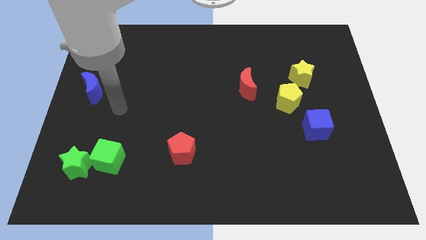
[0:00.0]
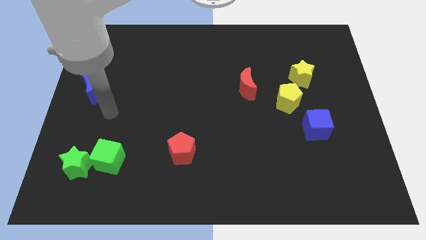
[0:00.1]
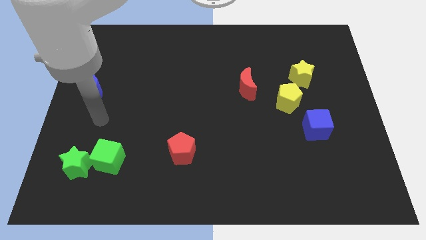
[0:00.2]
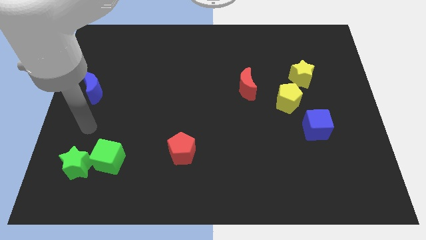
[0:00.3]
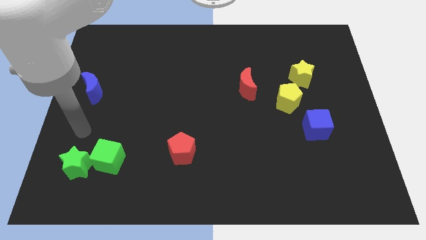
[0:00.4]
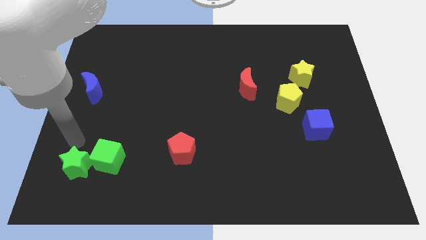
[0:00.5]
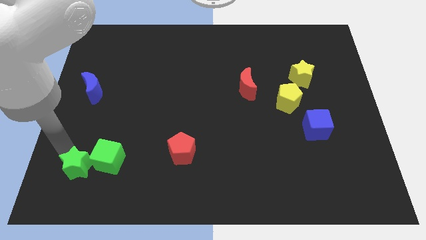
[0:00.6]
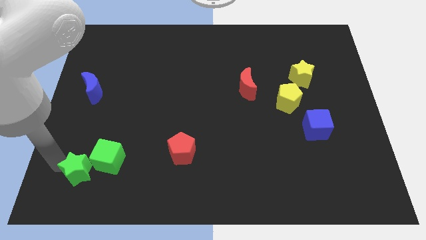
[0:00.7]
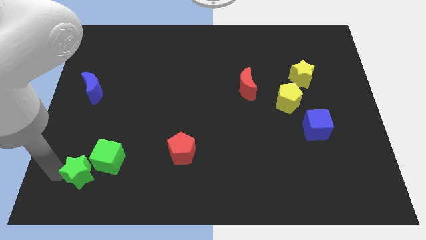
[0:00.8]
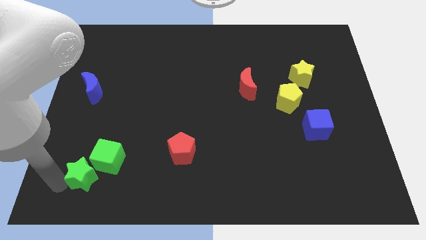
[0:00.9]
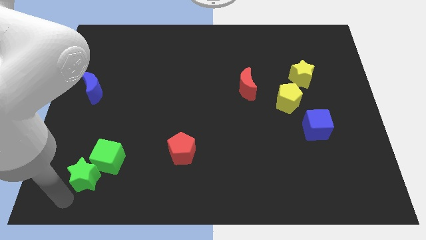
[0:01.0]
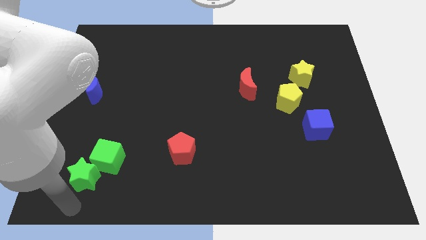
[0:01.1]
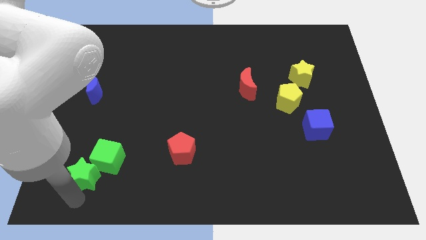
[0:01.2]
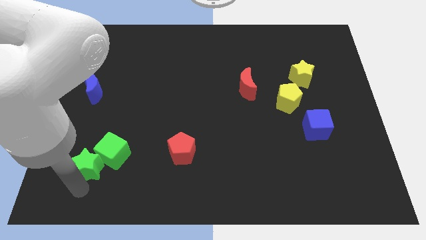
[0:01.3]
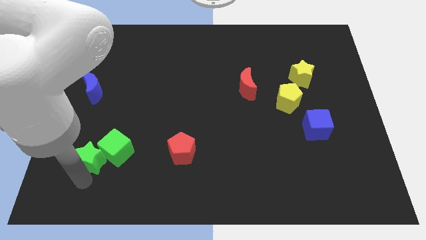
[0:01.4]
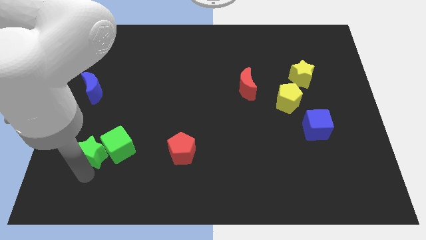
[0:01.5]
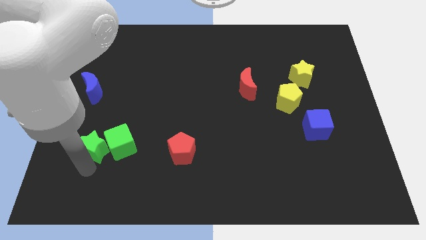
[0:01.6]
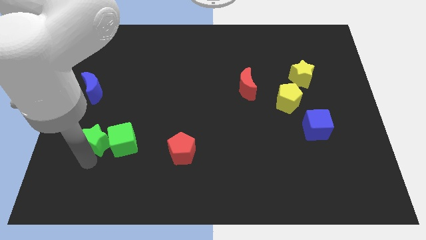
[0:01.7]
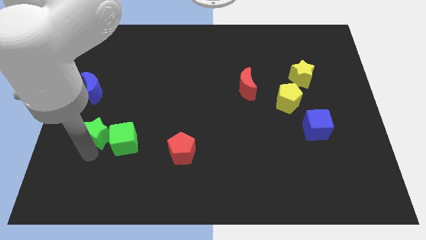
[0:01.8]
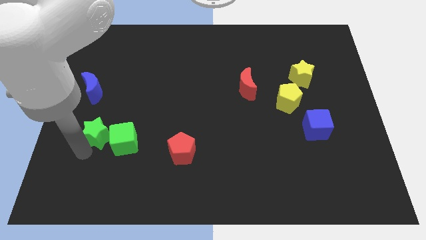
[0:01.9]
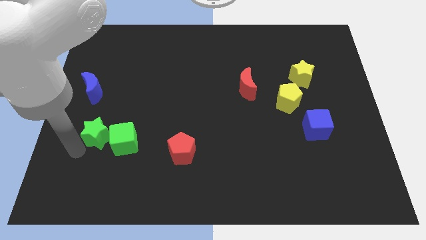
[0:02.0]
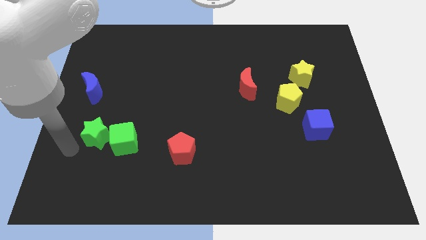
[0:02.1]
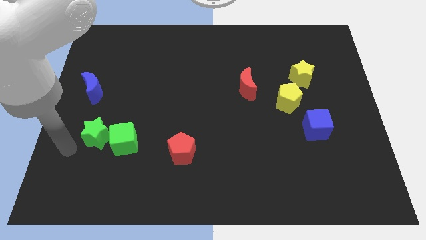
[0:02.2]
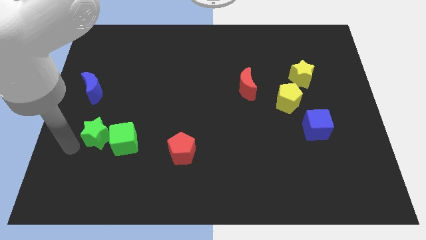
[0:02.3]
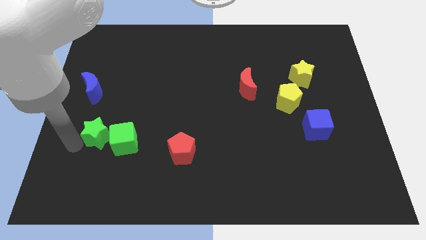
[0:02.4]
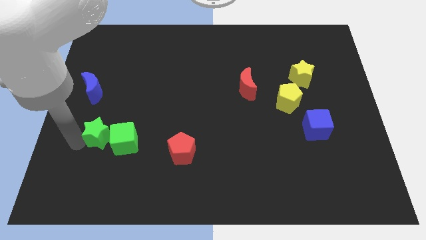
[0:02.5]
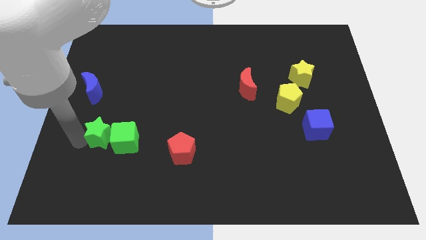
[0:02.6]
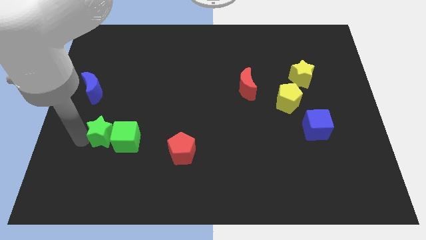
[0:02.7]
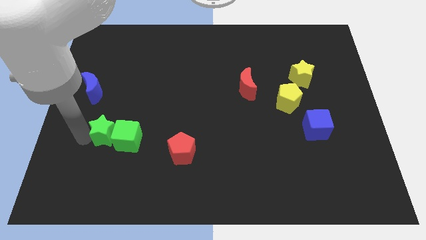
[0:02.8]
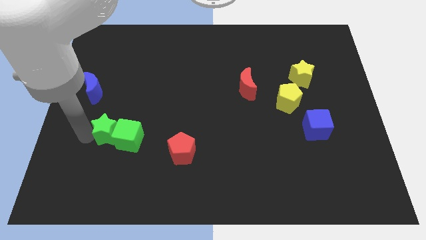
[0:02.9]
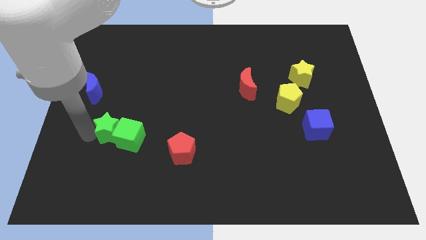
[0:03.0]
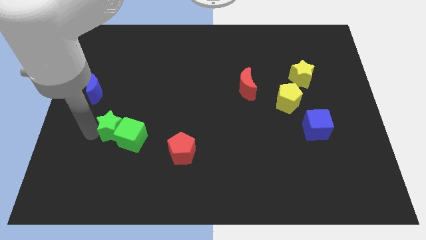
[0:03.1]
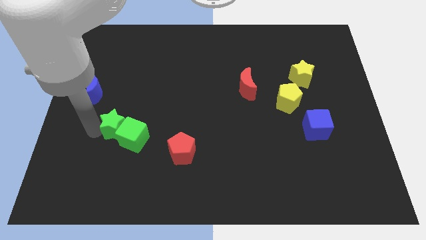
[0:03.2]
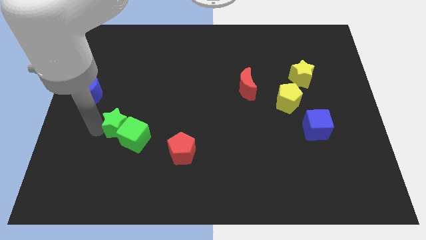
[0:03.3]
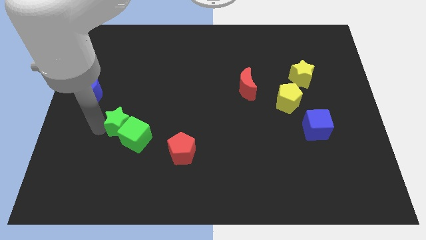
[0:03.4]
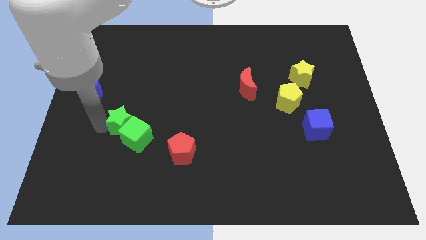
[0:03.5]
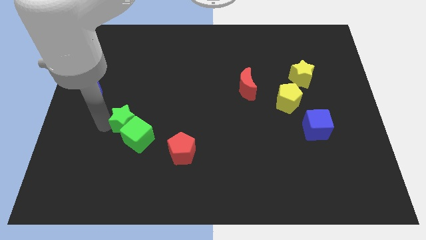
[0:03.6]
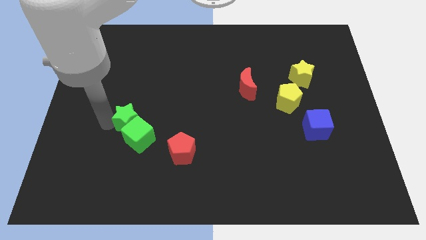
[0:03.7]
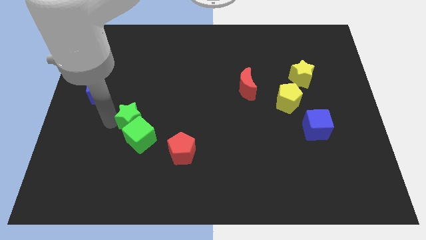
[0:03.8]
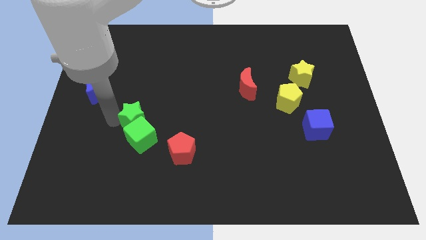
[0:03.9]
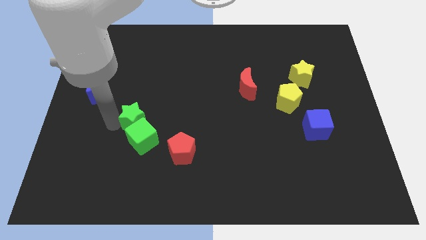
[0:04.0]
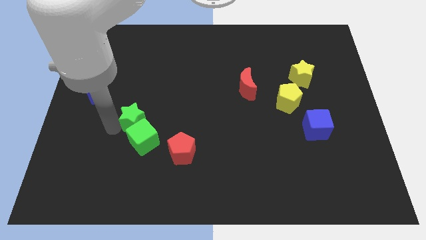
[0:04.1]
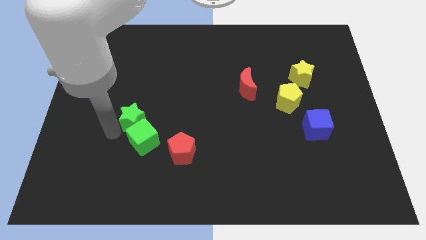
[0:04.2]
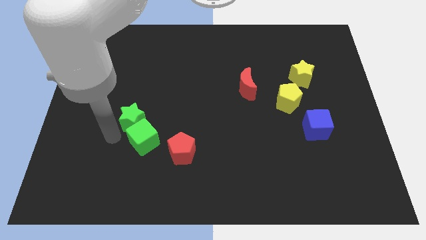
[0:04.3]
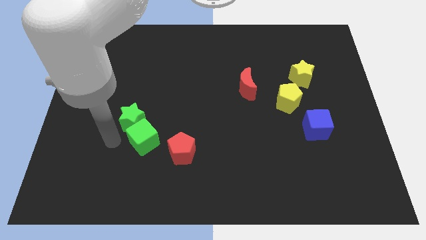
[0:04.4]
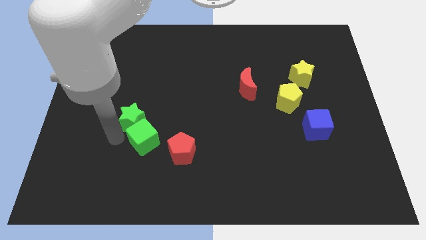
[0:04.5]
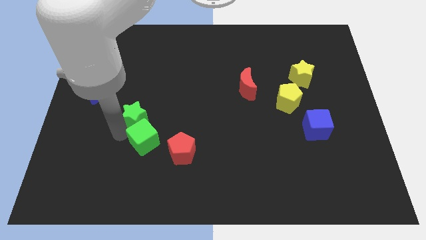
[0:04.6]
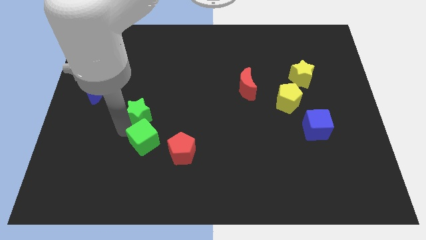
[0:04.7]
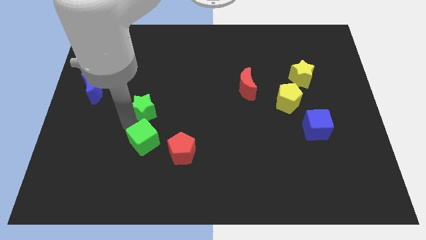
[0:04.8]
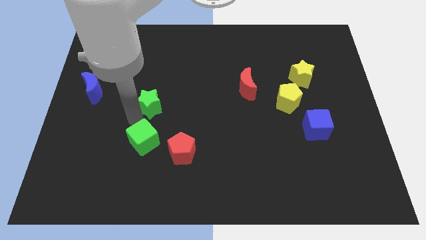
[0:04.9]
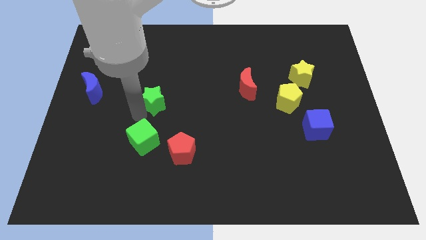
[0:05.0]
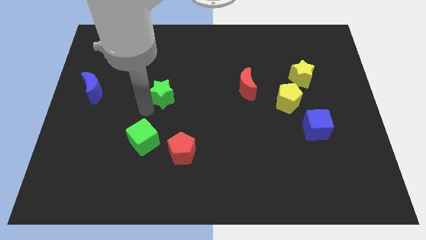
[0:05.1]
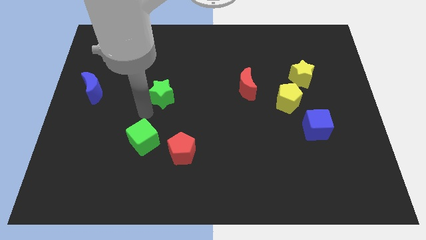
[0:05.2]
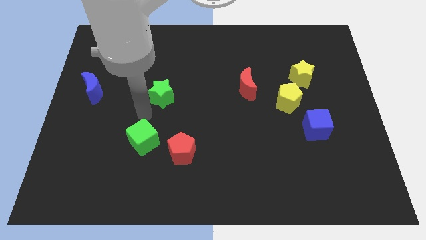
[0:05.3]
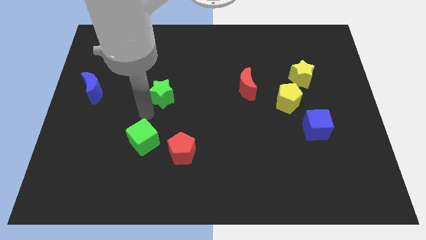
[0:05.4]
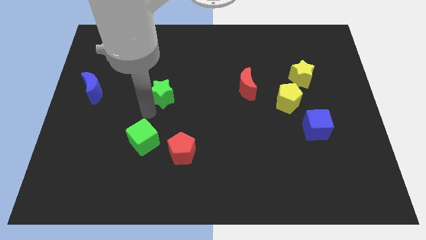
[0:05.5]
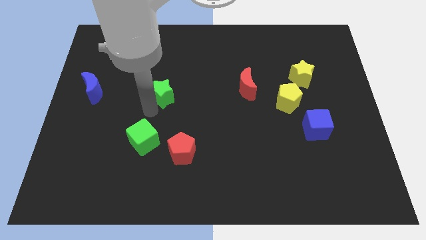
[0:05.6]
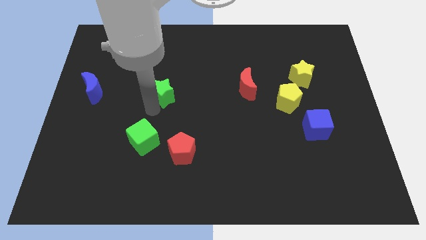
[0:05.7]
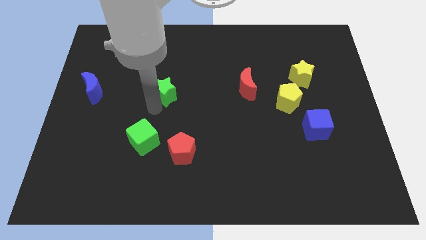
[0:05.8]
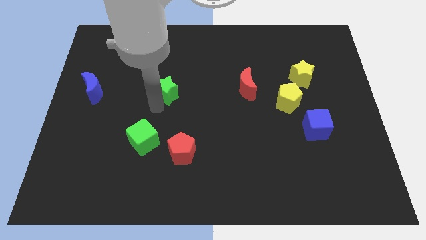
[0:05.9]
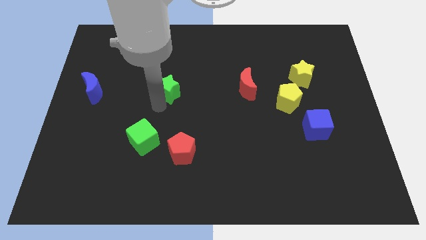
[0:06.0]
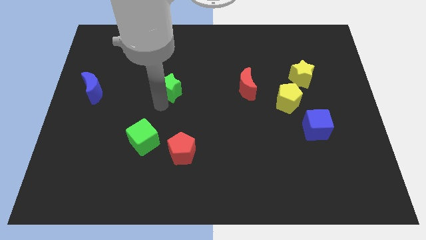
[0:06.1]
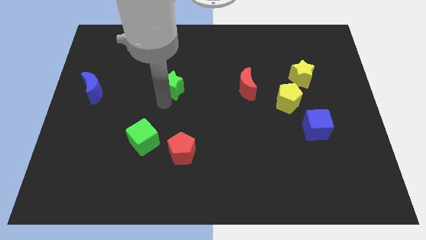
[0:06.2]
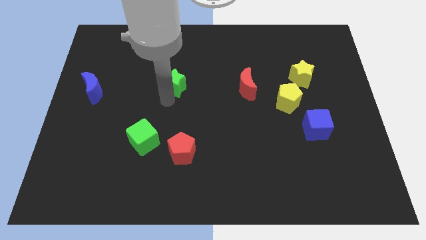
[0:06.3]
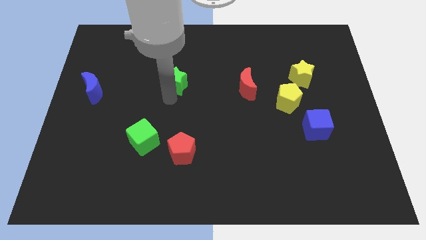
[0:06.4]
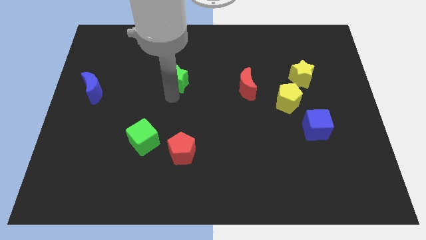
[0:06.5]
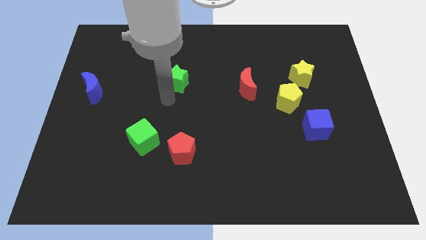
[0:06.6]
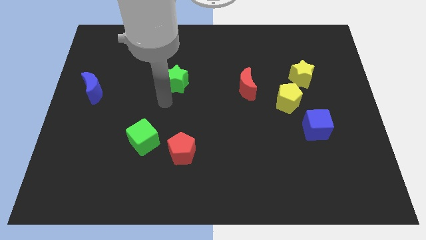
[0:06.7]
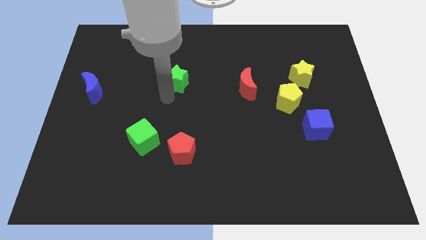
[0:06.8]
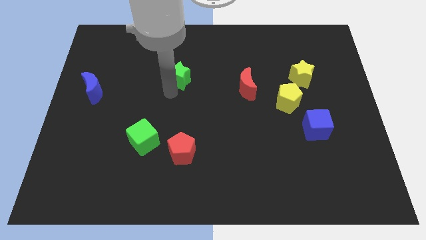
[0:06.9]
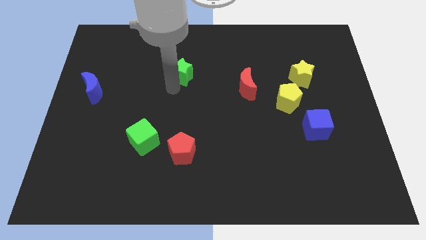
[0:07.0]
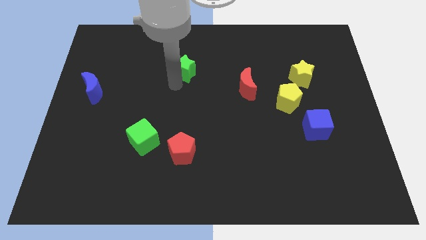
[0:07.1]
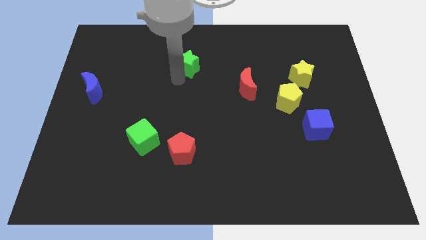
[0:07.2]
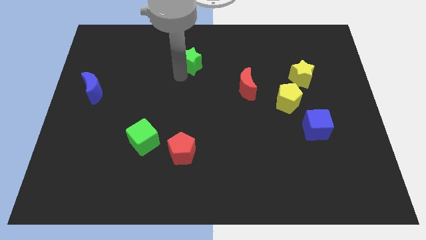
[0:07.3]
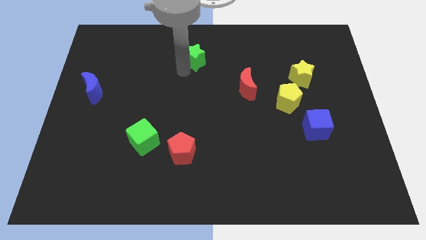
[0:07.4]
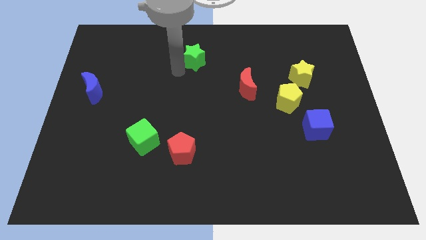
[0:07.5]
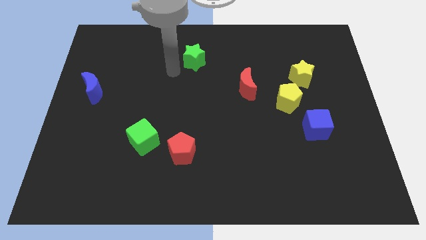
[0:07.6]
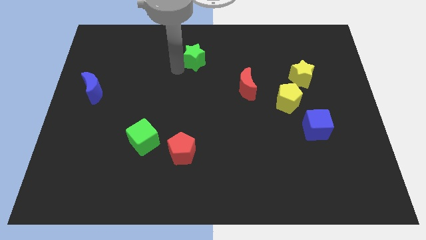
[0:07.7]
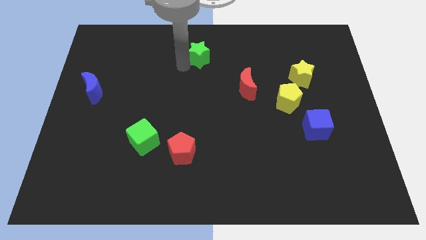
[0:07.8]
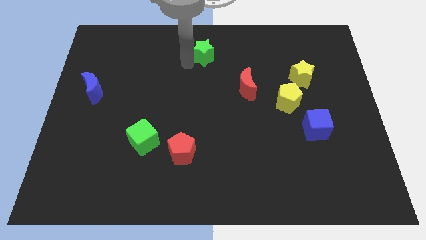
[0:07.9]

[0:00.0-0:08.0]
move the green star to the top side

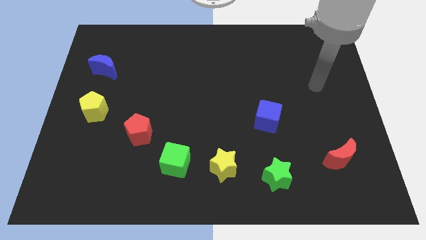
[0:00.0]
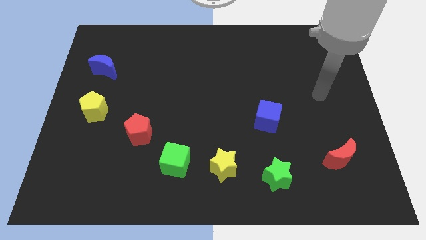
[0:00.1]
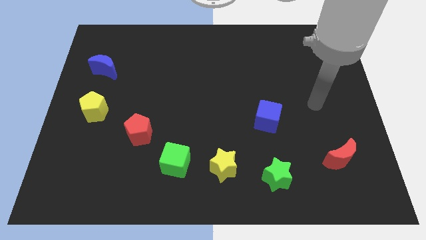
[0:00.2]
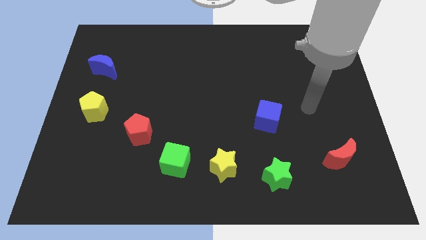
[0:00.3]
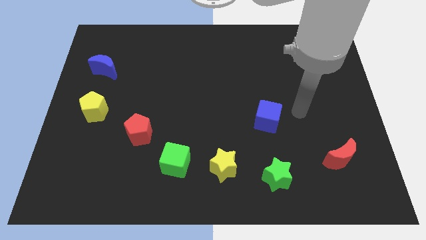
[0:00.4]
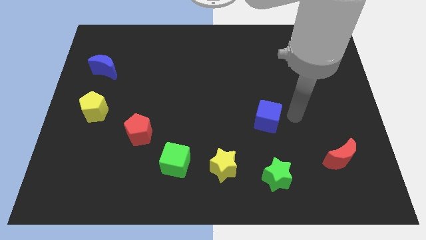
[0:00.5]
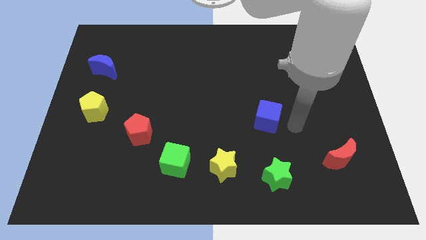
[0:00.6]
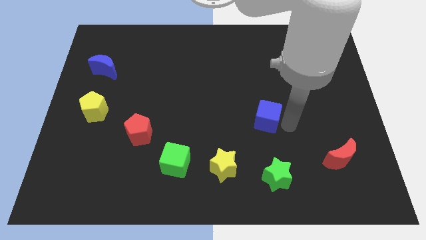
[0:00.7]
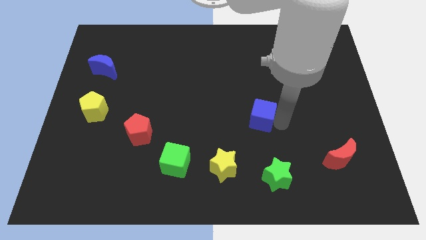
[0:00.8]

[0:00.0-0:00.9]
slide the blue cube to the center of the board
